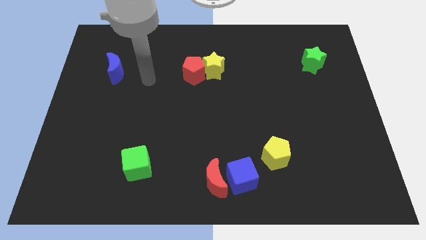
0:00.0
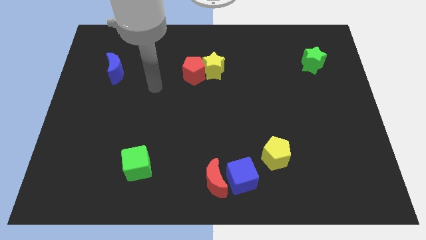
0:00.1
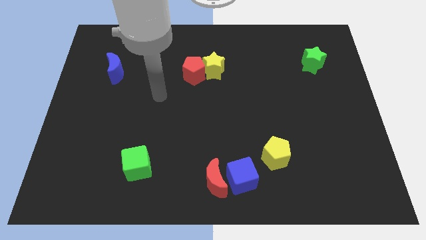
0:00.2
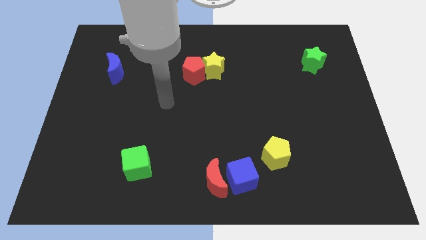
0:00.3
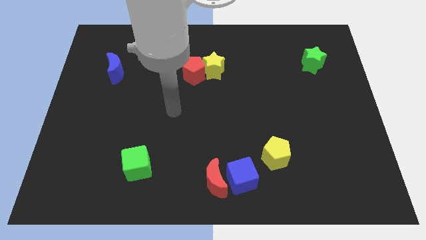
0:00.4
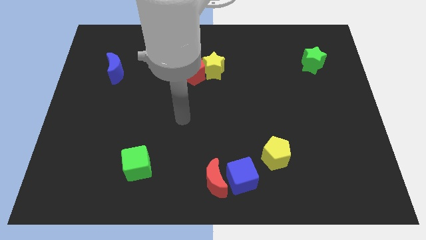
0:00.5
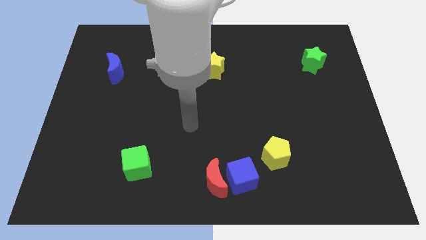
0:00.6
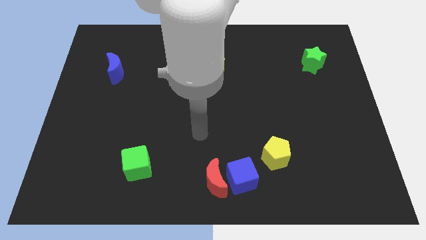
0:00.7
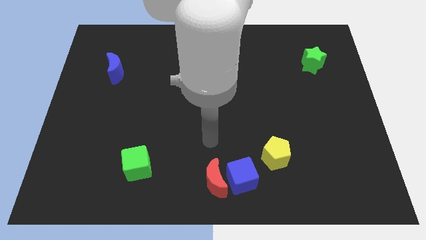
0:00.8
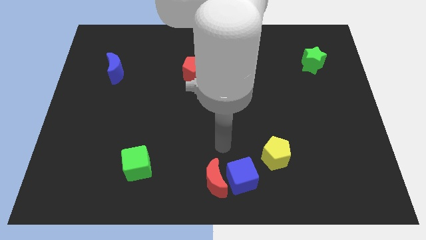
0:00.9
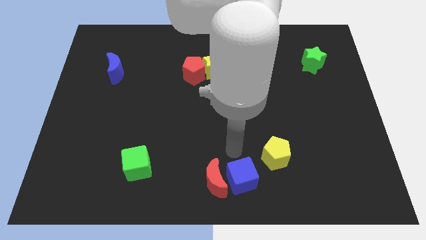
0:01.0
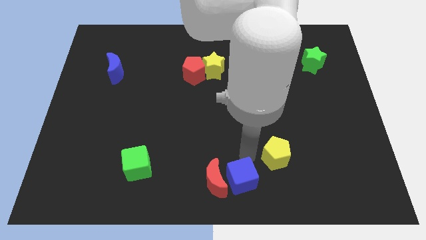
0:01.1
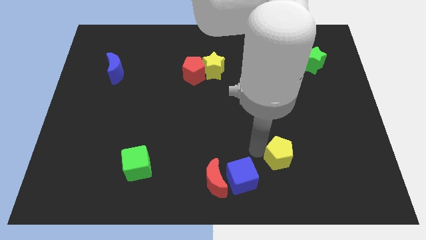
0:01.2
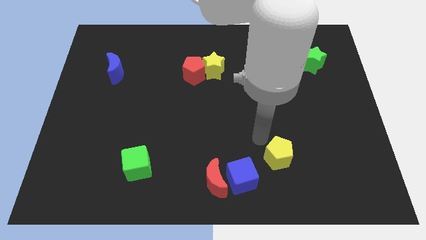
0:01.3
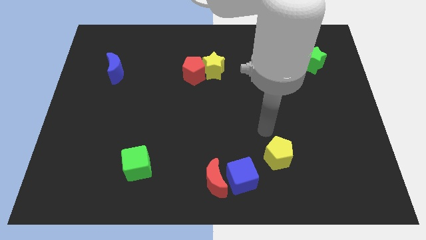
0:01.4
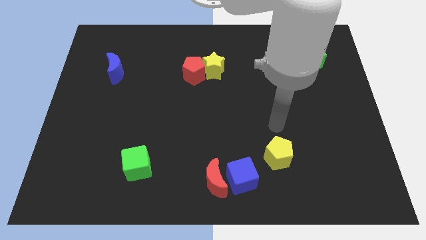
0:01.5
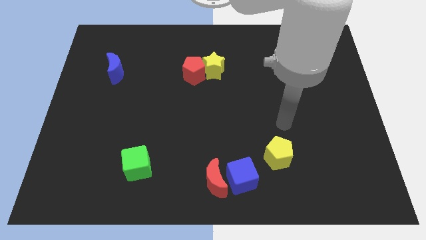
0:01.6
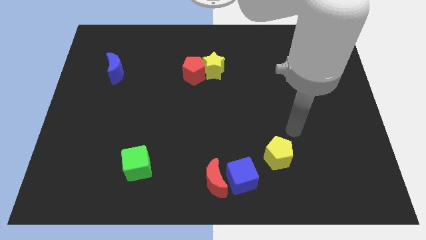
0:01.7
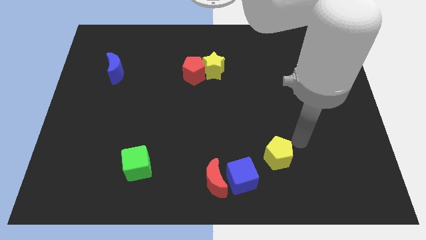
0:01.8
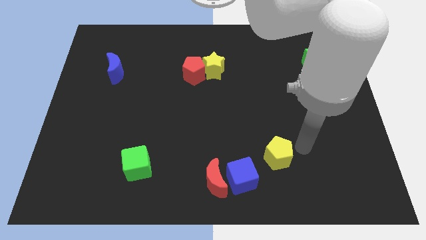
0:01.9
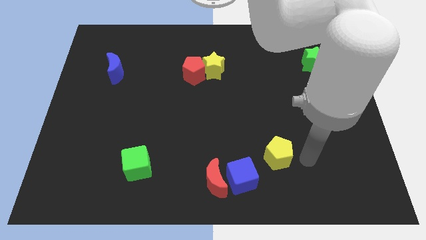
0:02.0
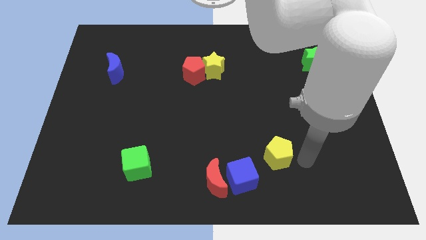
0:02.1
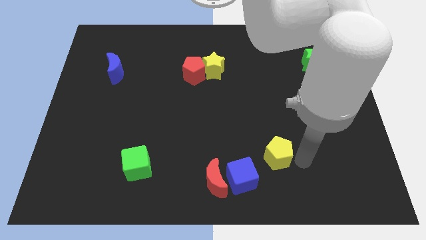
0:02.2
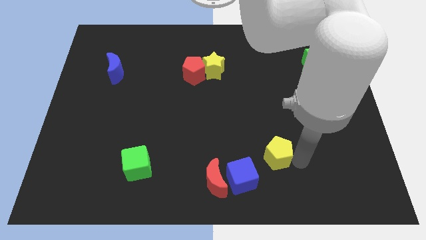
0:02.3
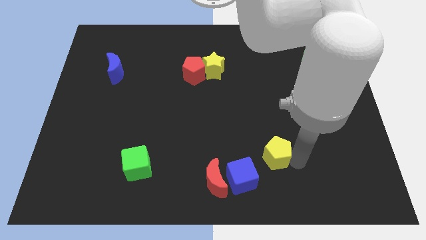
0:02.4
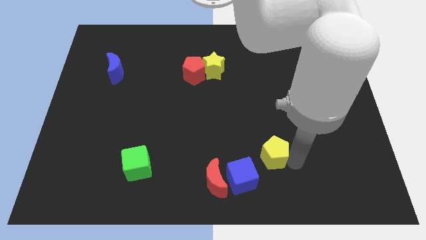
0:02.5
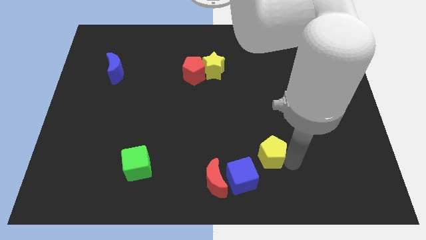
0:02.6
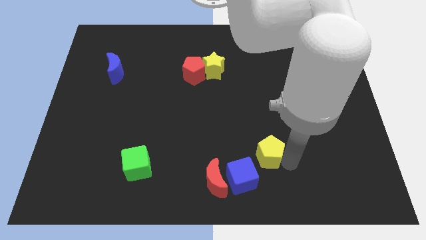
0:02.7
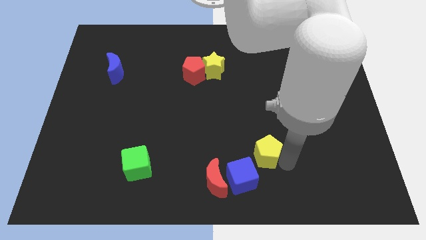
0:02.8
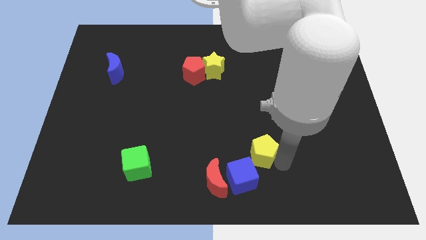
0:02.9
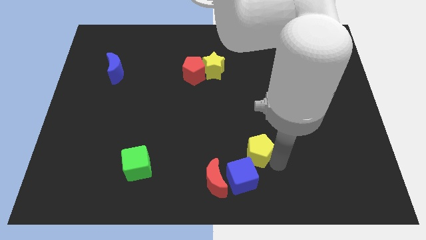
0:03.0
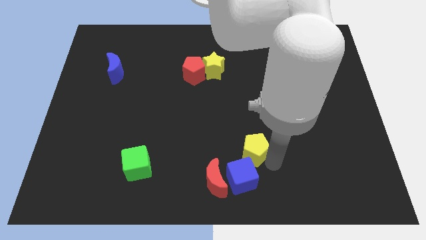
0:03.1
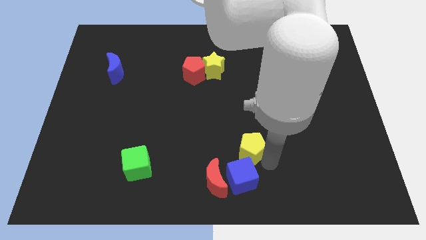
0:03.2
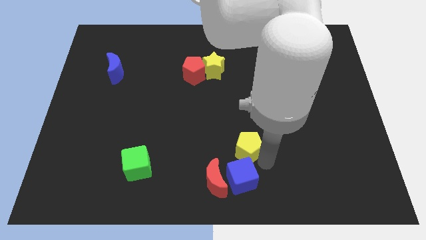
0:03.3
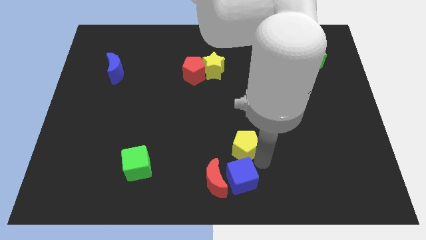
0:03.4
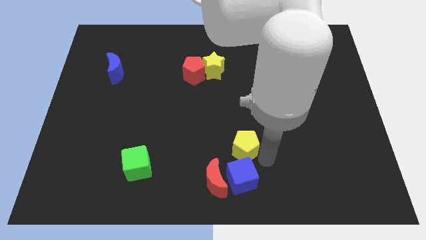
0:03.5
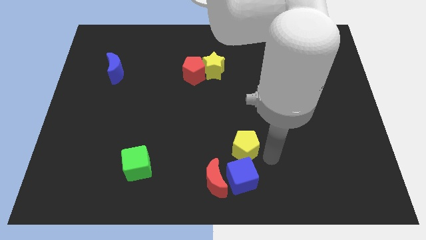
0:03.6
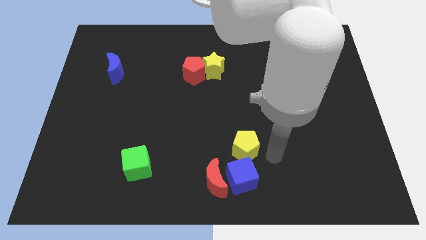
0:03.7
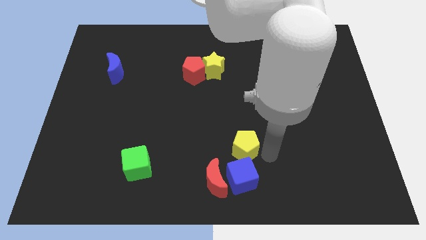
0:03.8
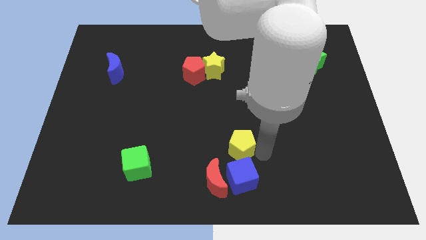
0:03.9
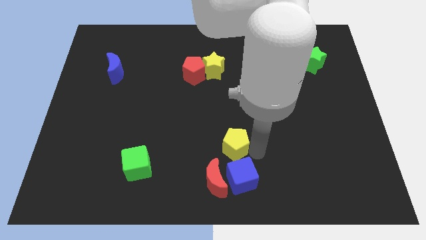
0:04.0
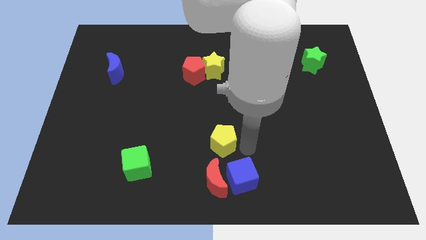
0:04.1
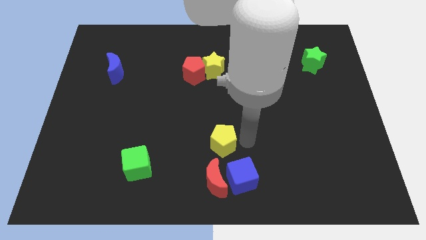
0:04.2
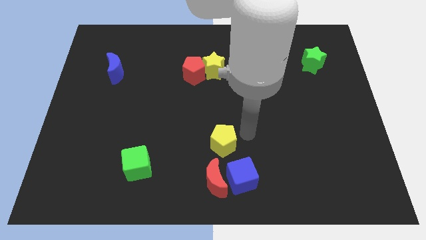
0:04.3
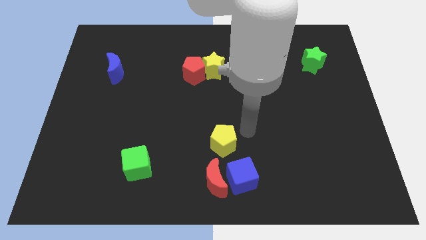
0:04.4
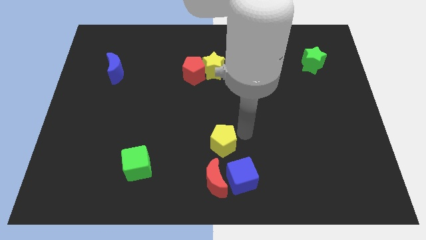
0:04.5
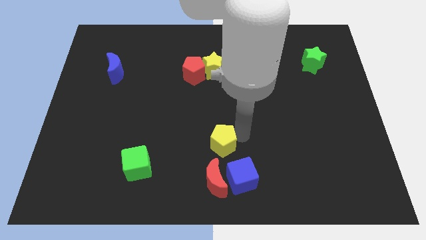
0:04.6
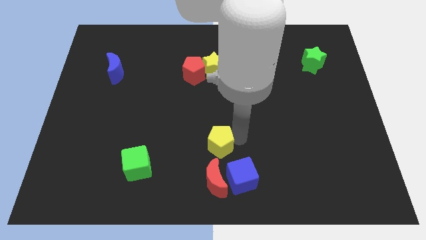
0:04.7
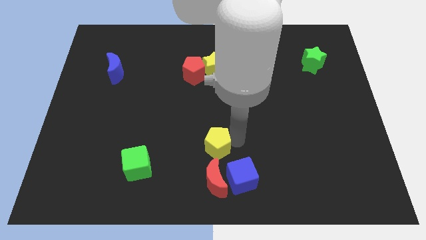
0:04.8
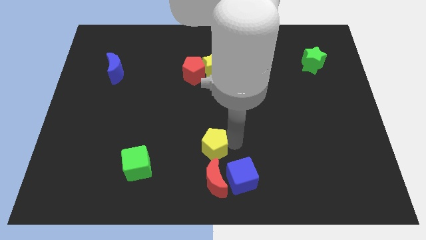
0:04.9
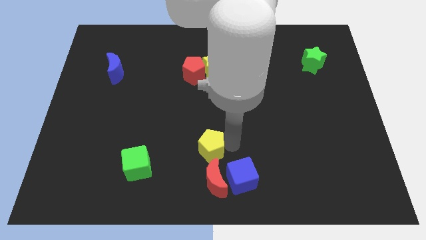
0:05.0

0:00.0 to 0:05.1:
put the yellow pentagon diagonally up and to the left of the red moon
